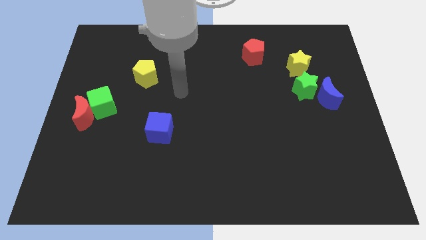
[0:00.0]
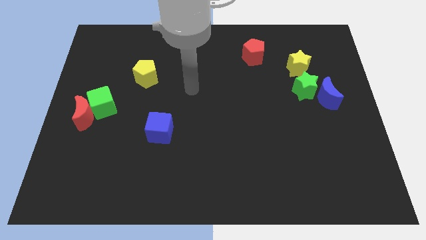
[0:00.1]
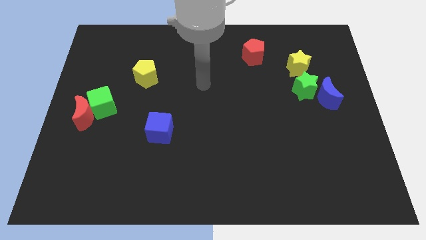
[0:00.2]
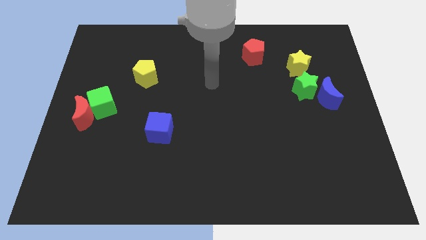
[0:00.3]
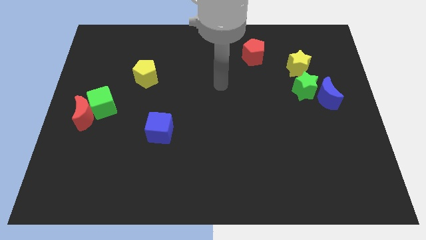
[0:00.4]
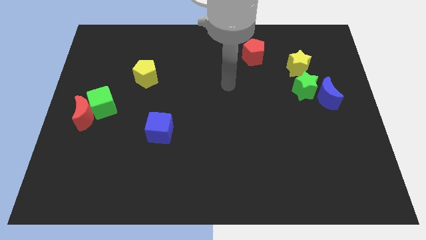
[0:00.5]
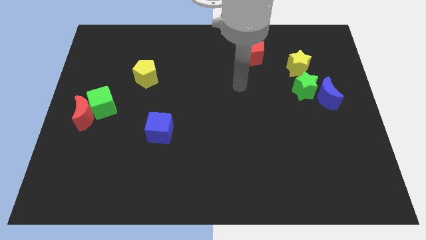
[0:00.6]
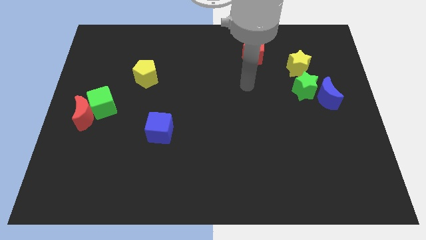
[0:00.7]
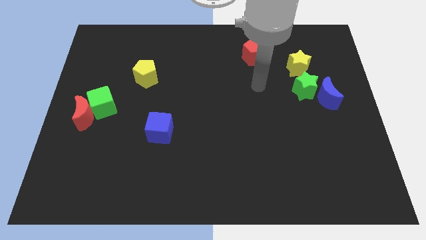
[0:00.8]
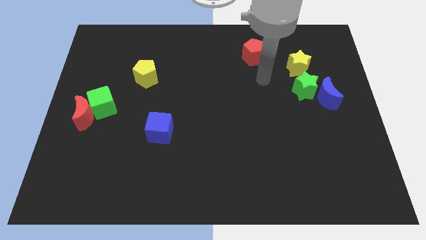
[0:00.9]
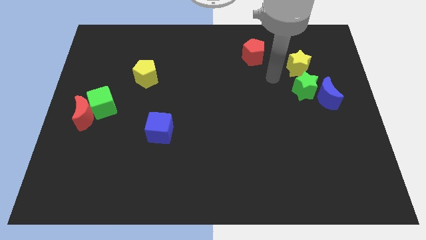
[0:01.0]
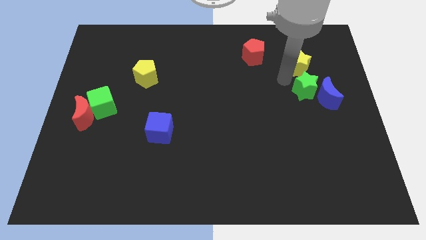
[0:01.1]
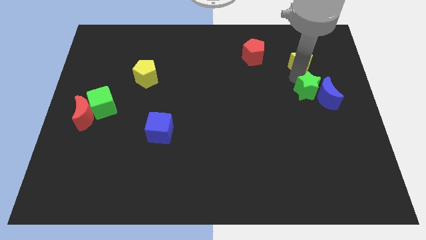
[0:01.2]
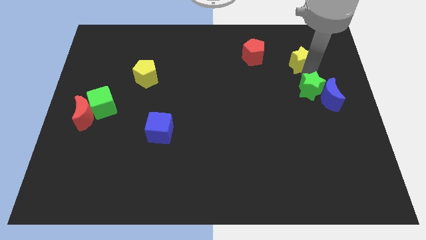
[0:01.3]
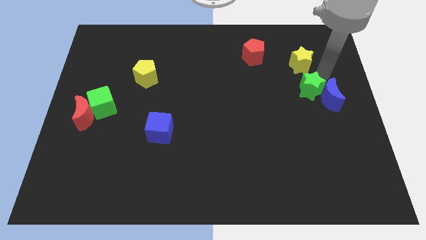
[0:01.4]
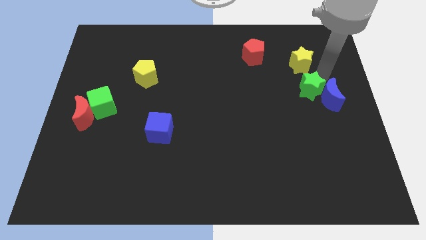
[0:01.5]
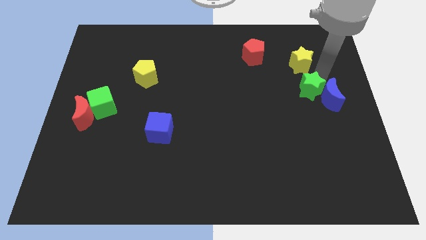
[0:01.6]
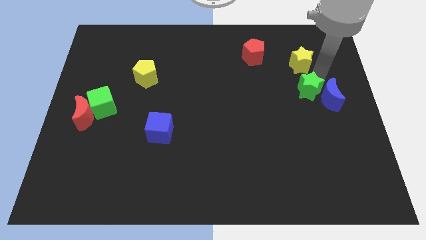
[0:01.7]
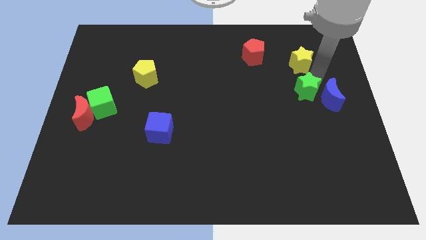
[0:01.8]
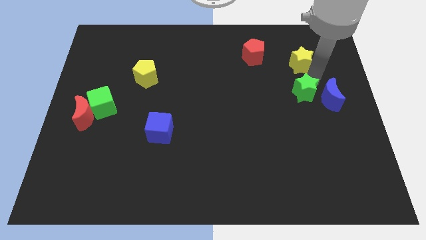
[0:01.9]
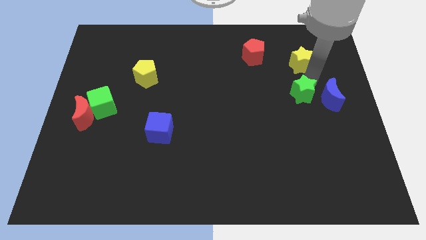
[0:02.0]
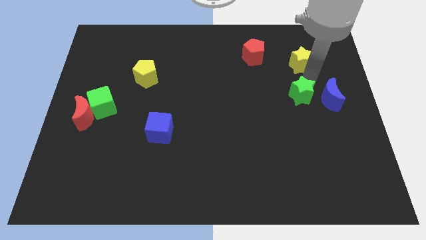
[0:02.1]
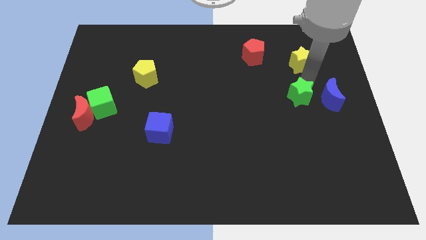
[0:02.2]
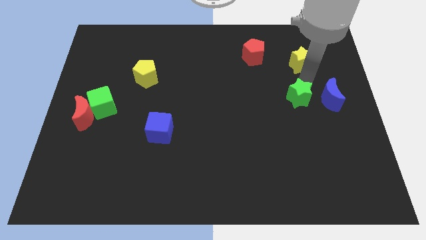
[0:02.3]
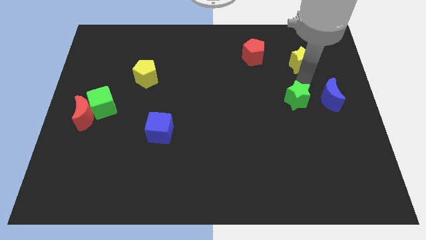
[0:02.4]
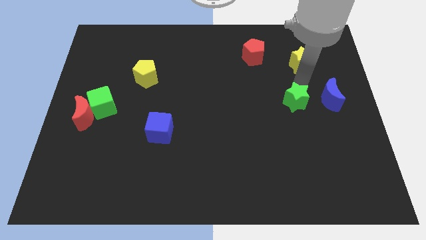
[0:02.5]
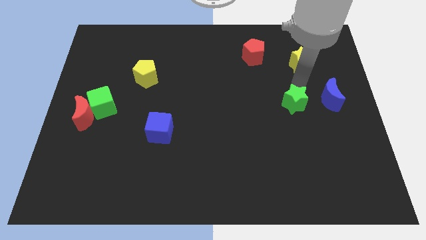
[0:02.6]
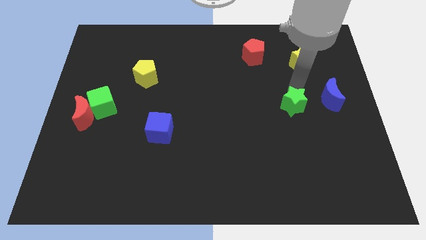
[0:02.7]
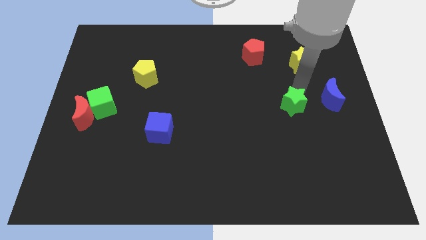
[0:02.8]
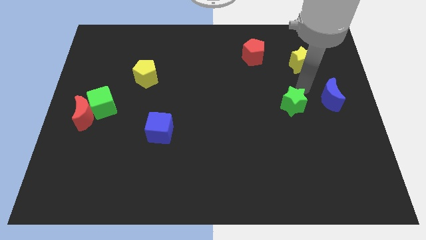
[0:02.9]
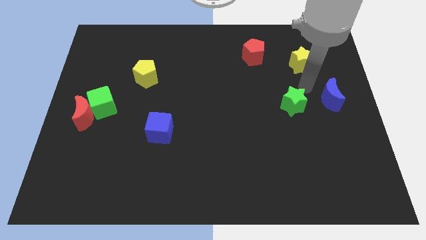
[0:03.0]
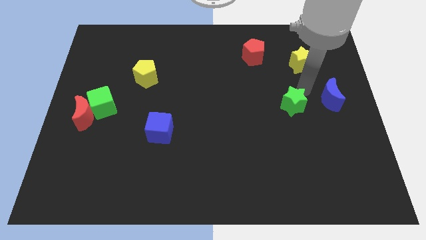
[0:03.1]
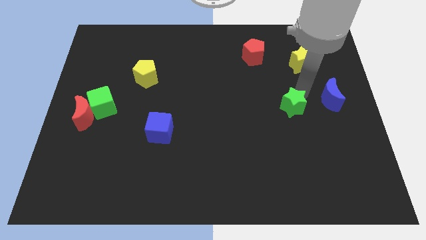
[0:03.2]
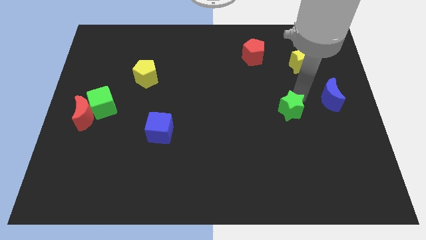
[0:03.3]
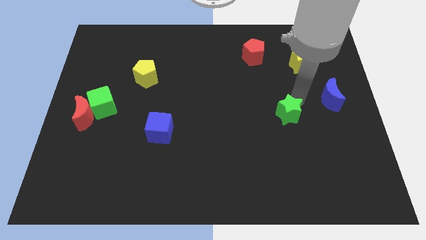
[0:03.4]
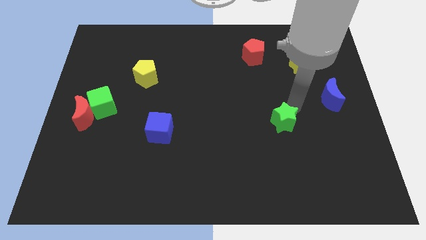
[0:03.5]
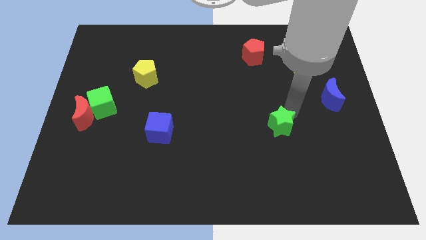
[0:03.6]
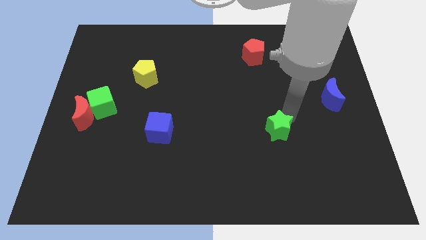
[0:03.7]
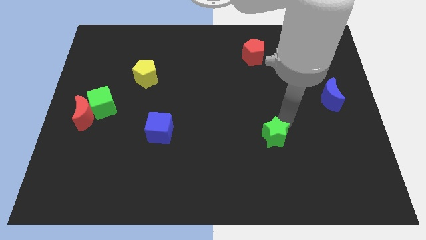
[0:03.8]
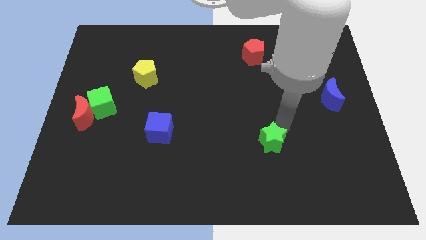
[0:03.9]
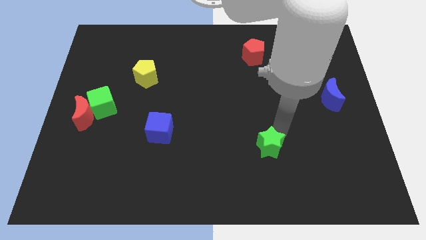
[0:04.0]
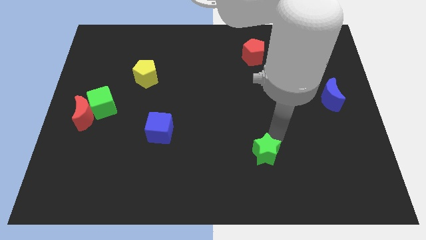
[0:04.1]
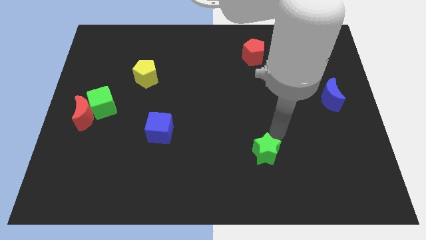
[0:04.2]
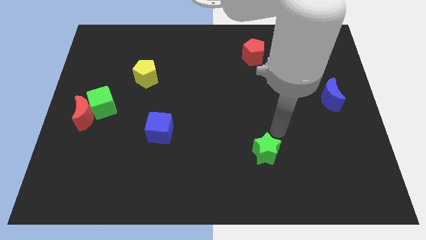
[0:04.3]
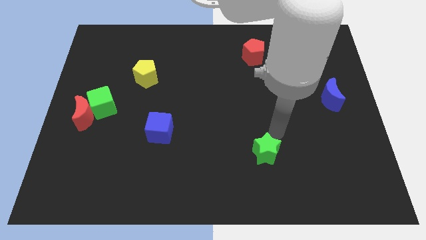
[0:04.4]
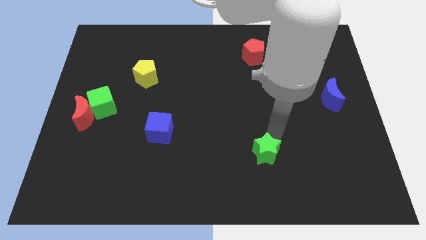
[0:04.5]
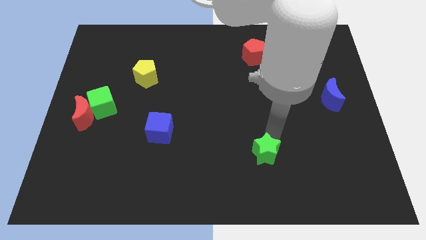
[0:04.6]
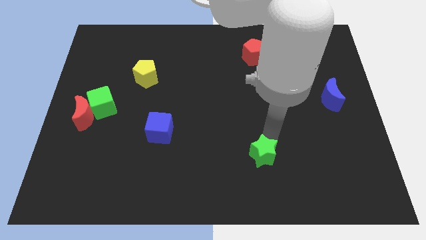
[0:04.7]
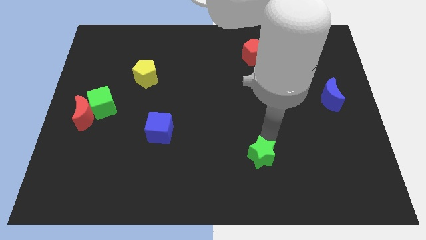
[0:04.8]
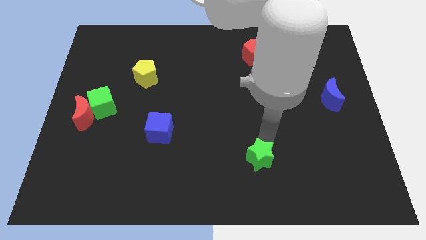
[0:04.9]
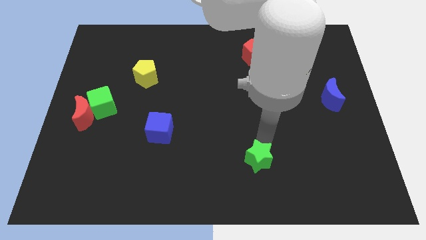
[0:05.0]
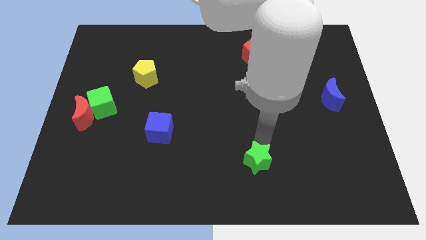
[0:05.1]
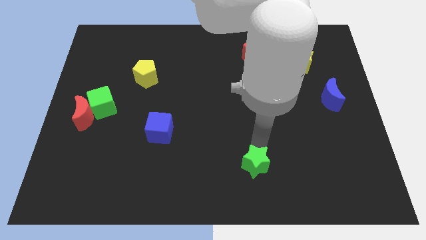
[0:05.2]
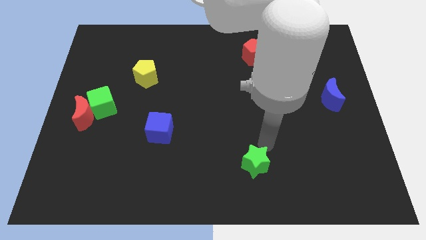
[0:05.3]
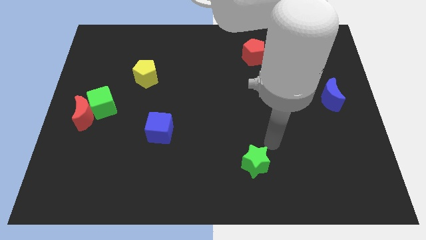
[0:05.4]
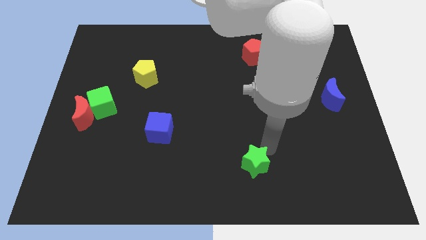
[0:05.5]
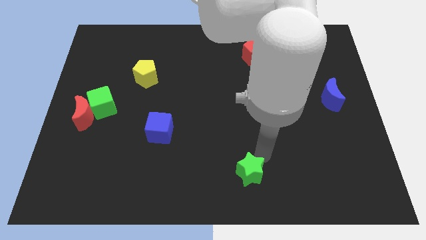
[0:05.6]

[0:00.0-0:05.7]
move the green star to the bottom

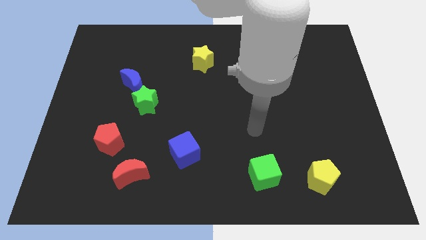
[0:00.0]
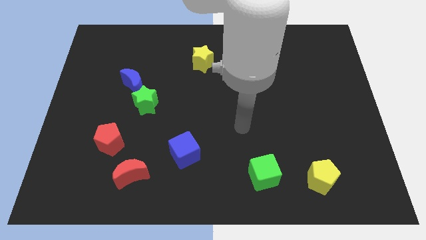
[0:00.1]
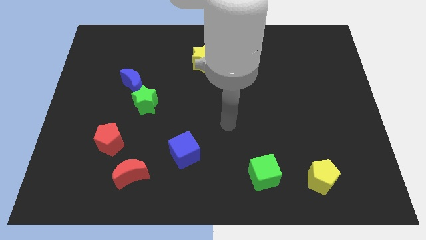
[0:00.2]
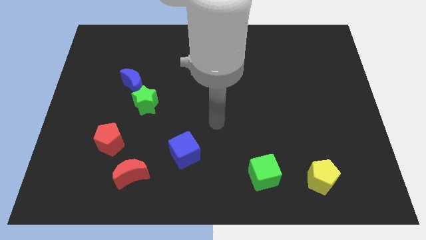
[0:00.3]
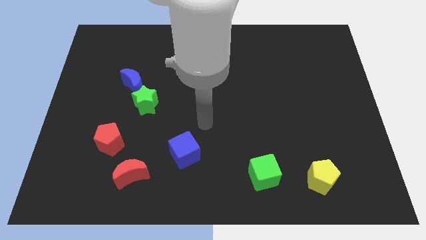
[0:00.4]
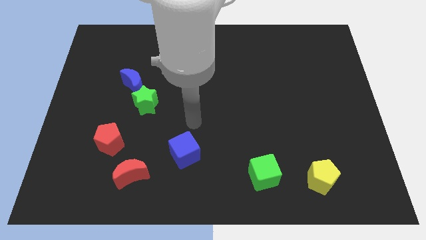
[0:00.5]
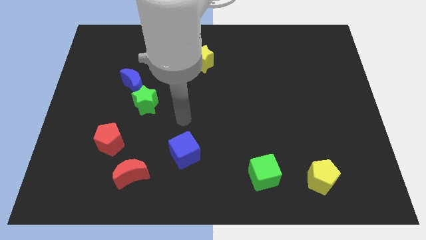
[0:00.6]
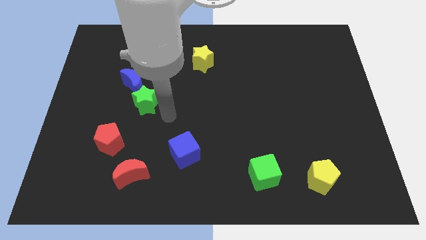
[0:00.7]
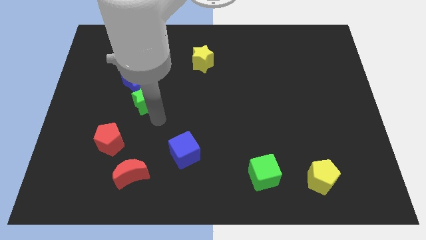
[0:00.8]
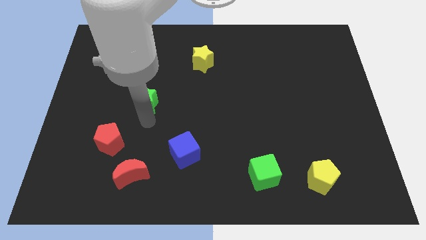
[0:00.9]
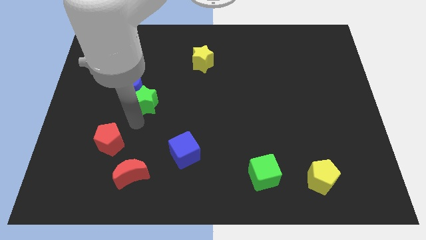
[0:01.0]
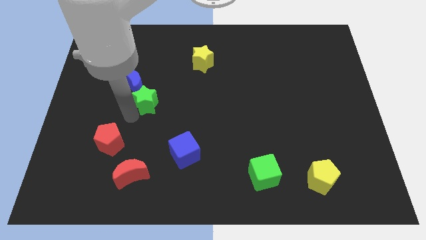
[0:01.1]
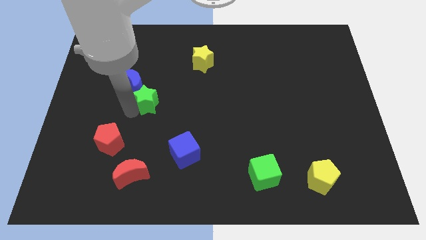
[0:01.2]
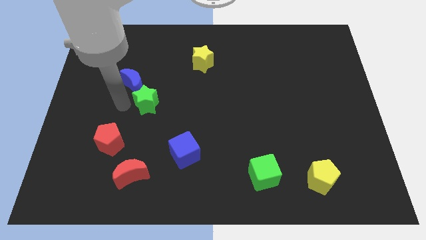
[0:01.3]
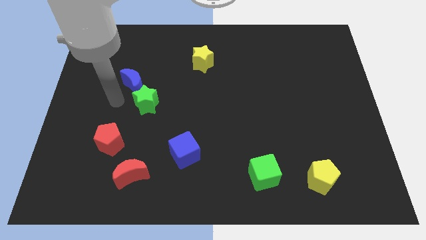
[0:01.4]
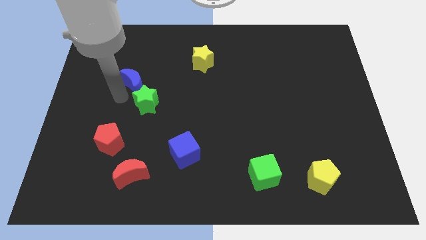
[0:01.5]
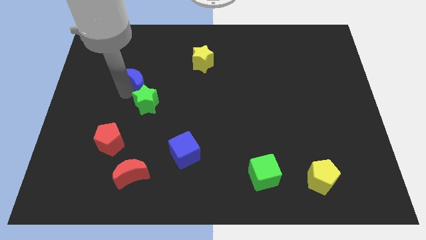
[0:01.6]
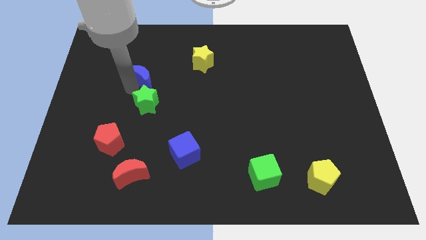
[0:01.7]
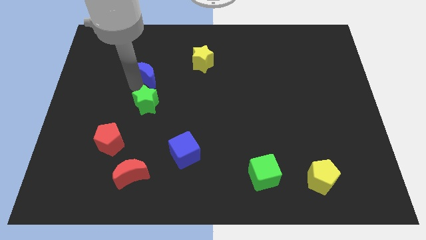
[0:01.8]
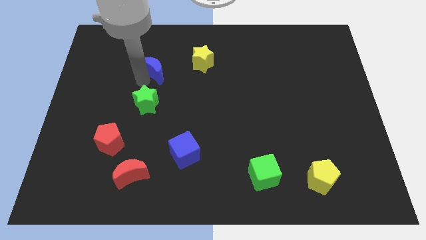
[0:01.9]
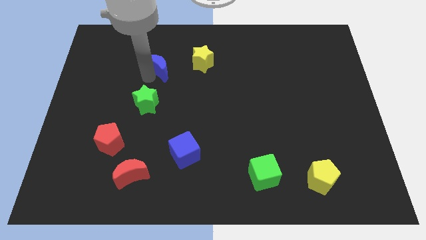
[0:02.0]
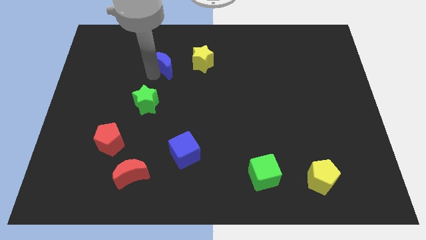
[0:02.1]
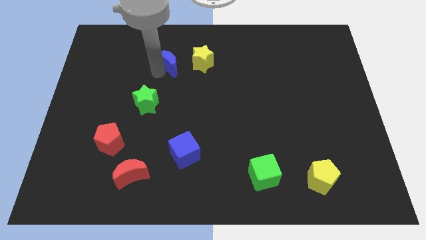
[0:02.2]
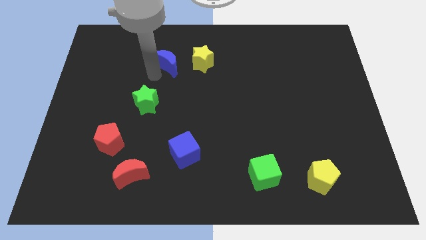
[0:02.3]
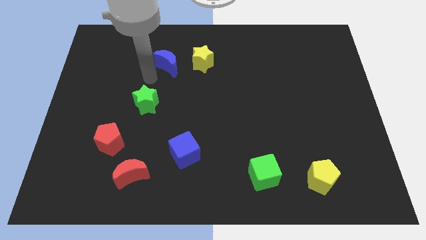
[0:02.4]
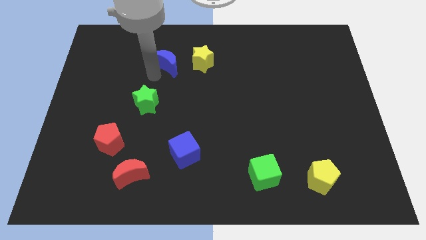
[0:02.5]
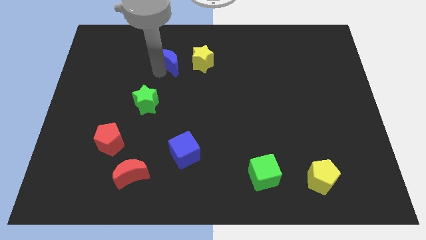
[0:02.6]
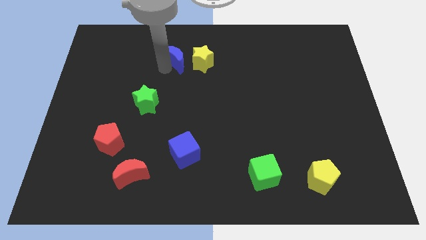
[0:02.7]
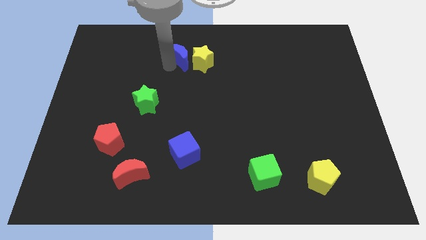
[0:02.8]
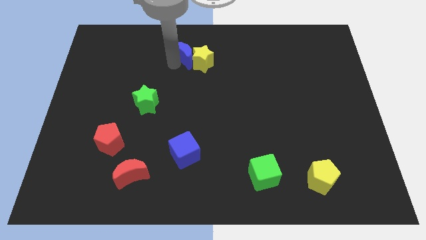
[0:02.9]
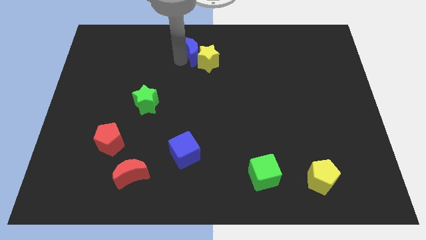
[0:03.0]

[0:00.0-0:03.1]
slide the blue moon to the top
